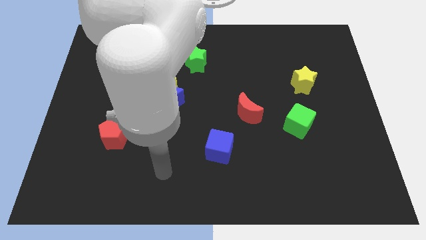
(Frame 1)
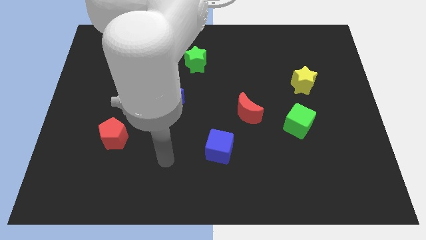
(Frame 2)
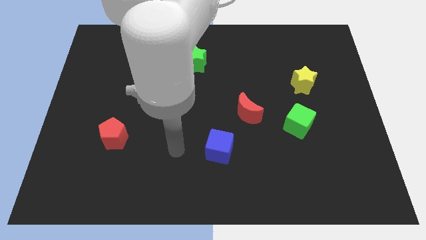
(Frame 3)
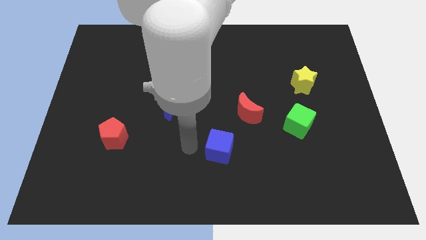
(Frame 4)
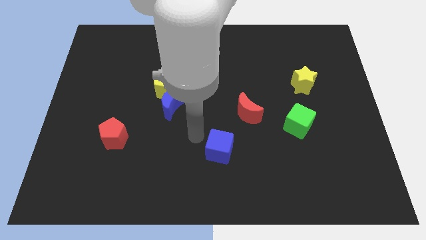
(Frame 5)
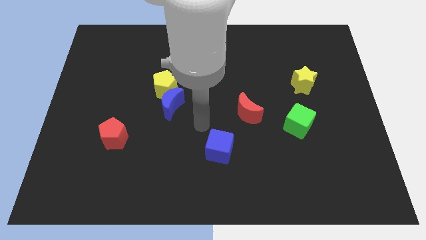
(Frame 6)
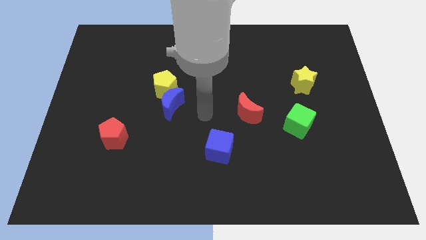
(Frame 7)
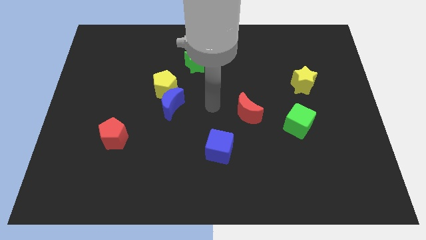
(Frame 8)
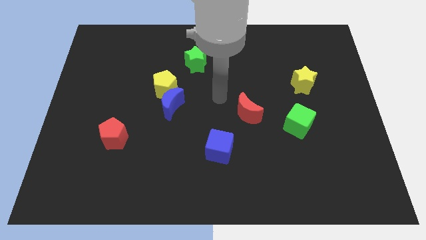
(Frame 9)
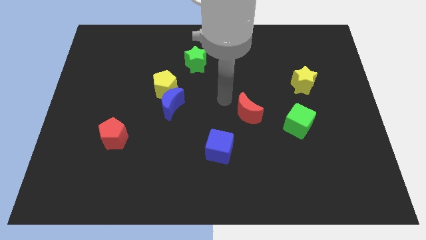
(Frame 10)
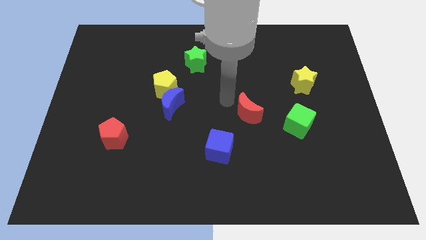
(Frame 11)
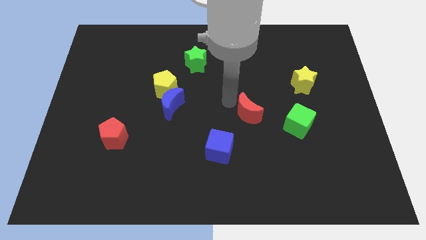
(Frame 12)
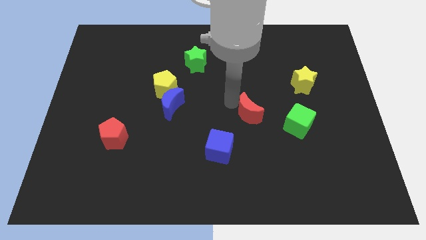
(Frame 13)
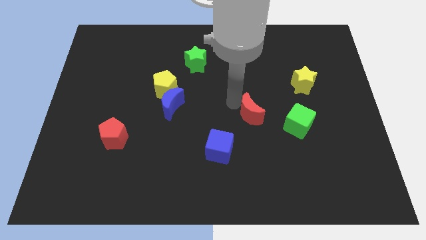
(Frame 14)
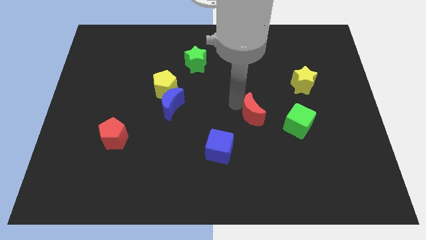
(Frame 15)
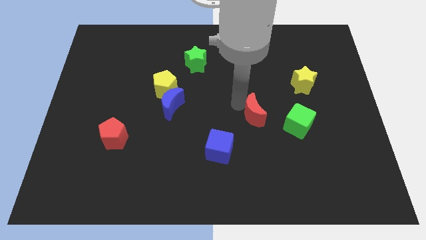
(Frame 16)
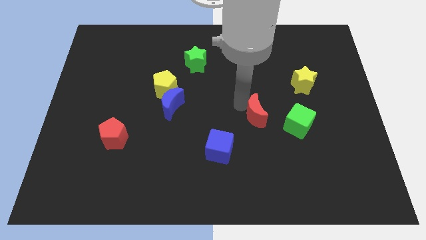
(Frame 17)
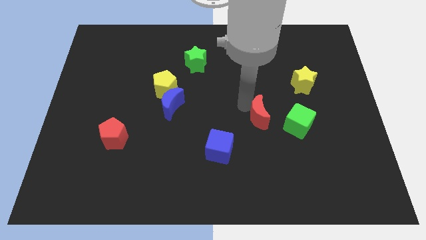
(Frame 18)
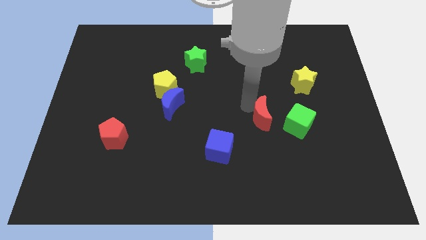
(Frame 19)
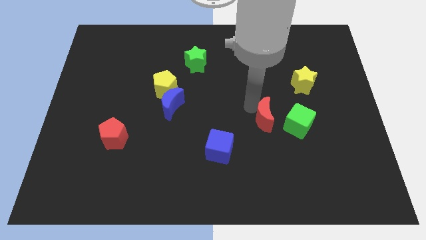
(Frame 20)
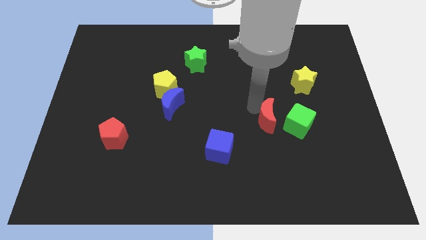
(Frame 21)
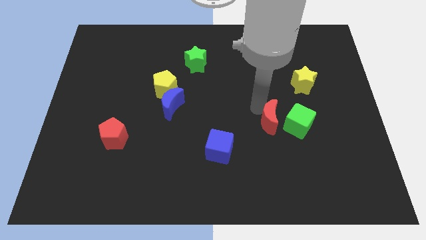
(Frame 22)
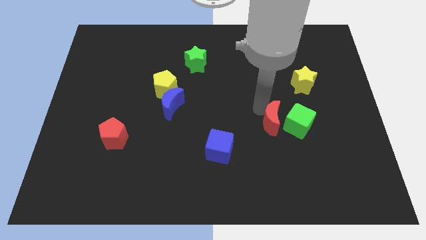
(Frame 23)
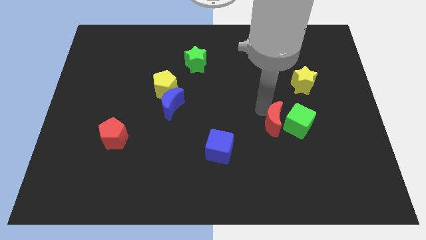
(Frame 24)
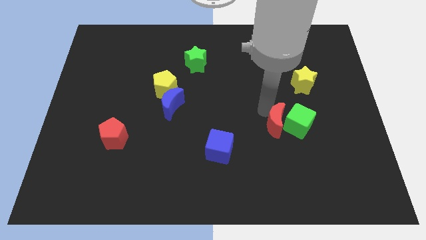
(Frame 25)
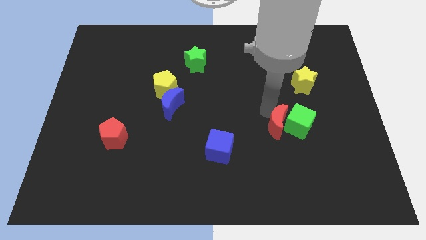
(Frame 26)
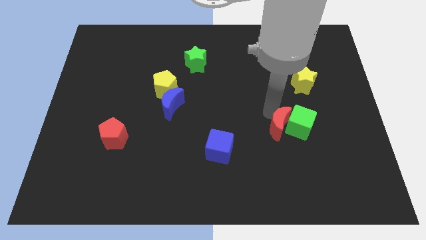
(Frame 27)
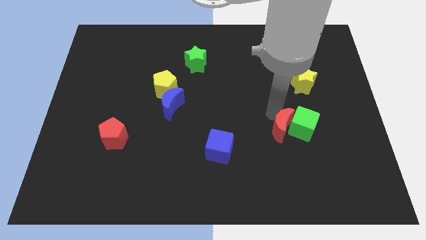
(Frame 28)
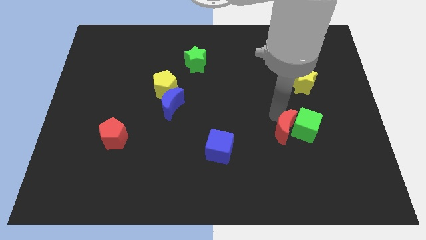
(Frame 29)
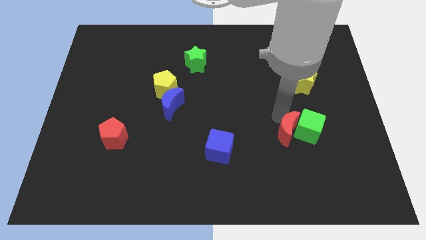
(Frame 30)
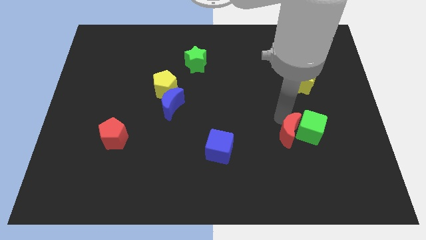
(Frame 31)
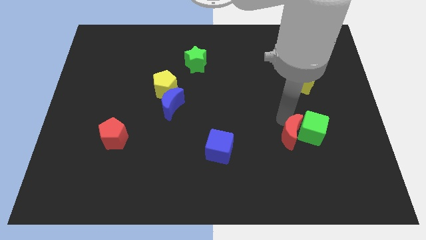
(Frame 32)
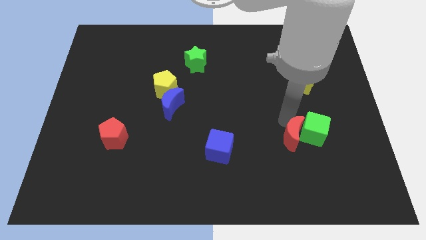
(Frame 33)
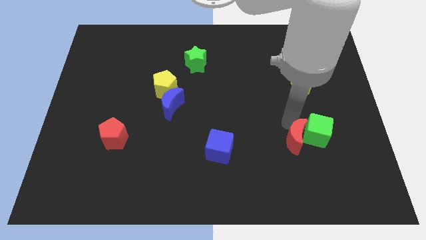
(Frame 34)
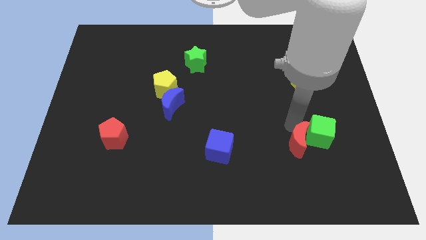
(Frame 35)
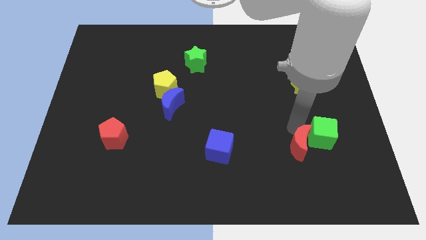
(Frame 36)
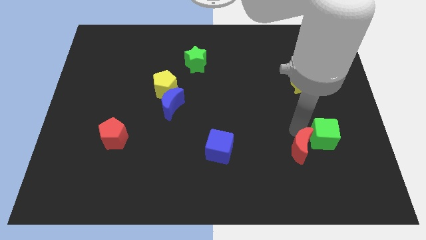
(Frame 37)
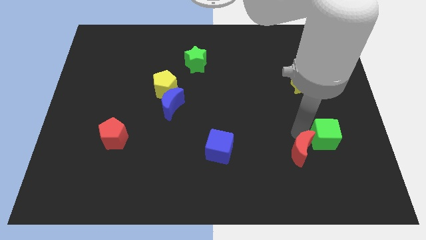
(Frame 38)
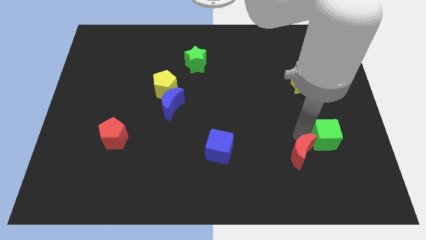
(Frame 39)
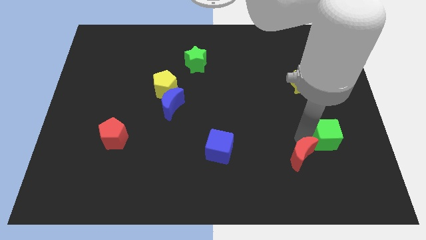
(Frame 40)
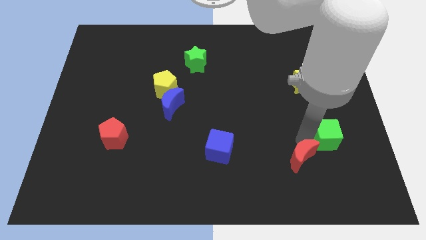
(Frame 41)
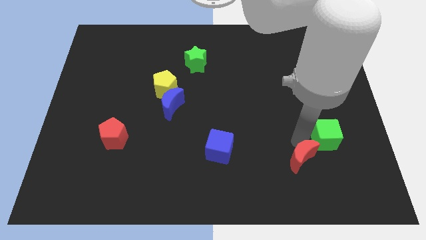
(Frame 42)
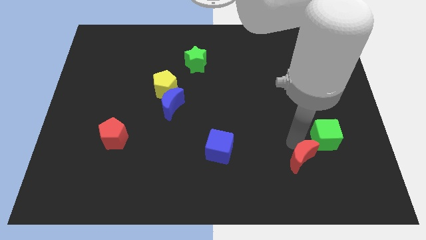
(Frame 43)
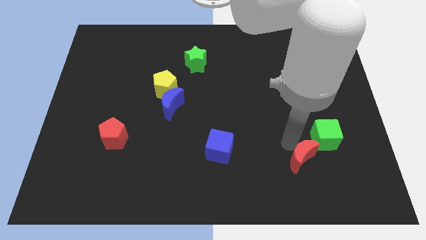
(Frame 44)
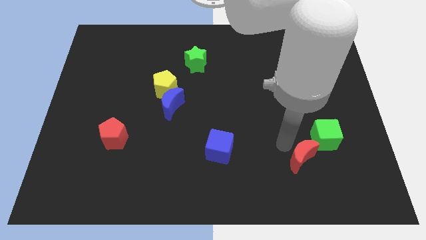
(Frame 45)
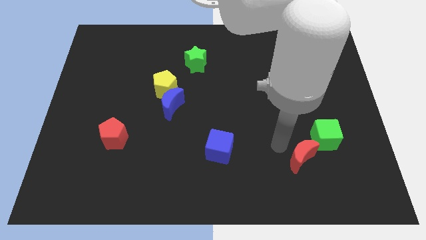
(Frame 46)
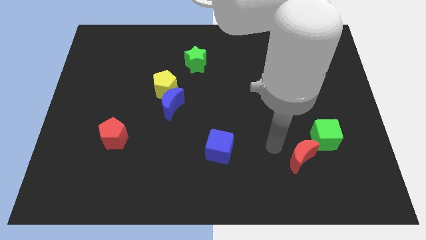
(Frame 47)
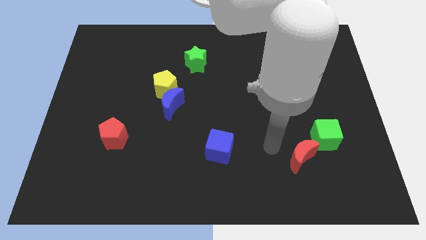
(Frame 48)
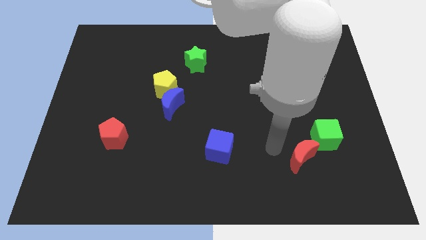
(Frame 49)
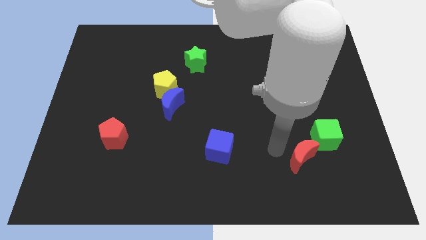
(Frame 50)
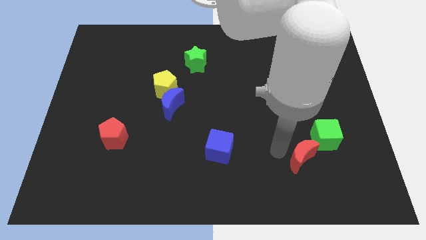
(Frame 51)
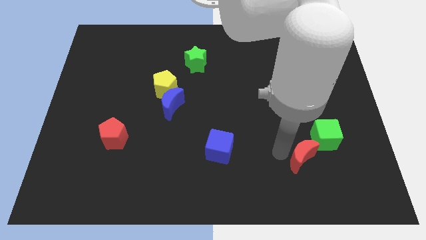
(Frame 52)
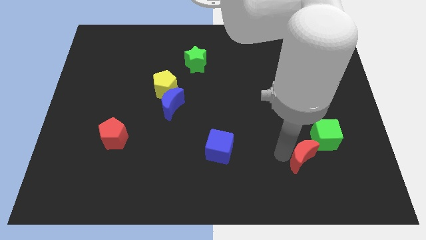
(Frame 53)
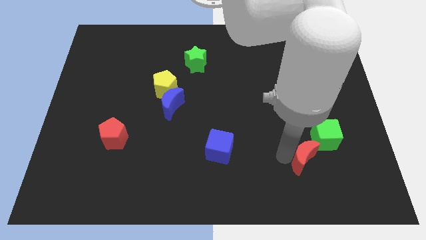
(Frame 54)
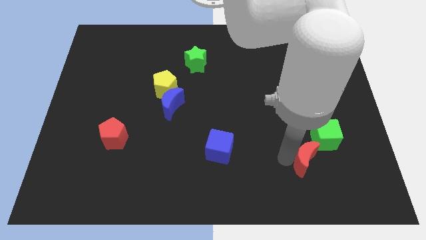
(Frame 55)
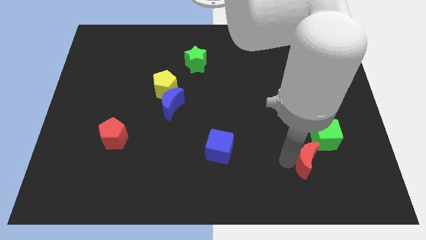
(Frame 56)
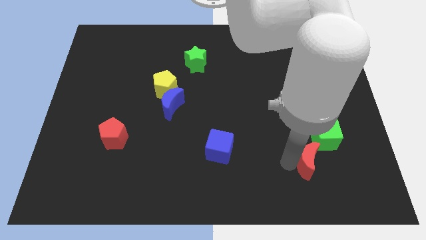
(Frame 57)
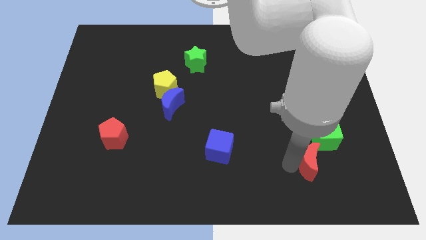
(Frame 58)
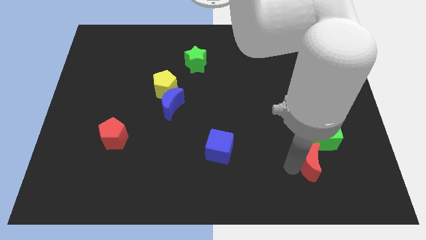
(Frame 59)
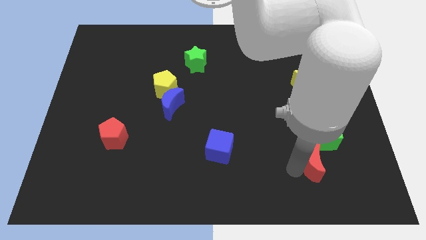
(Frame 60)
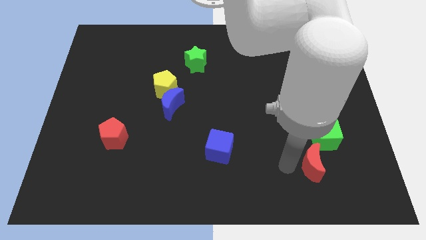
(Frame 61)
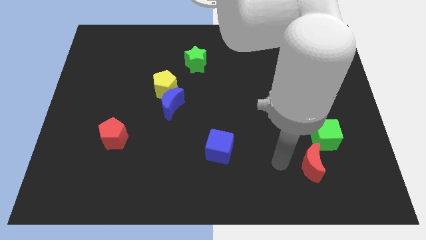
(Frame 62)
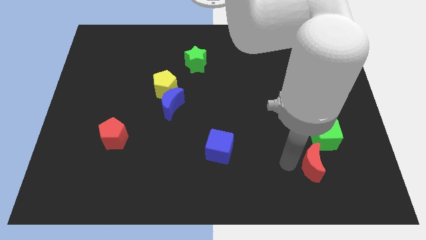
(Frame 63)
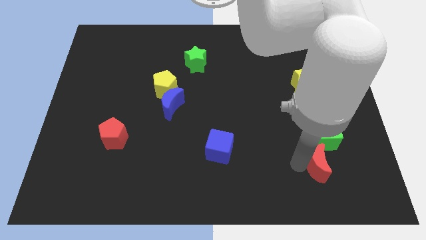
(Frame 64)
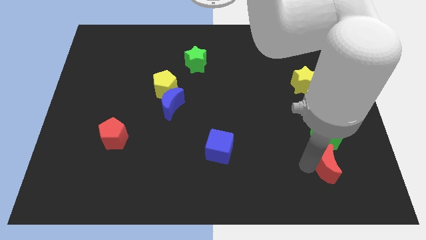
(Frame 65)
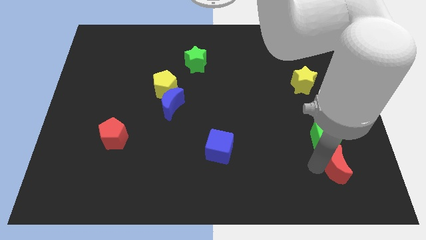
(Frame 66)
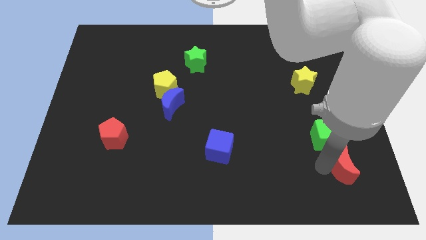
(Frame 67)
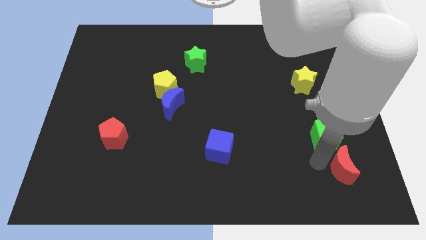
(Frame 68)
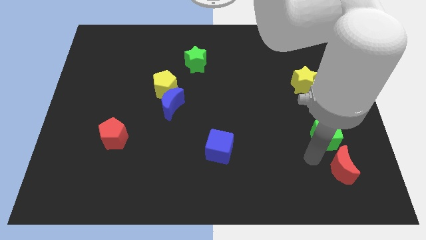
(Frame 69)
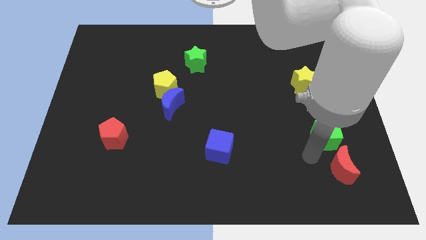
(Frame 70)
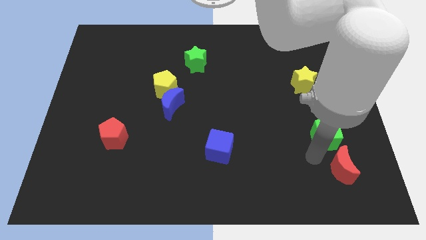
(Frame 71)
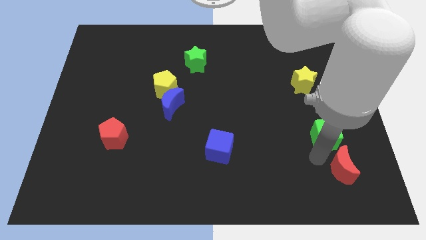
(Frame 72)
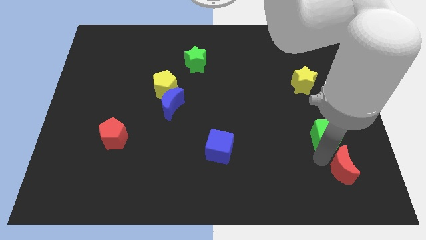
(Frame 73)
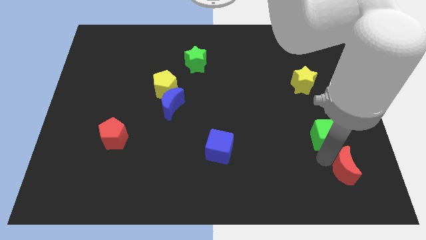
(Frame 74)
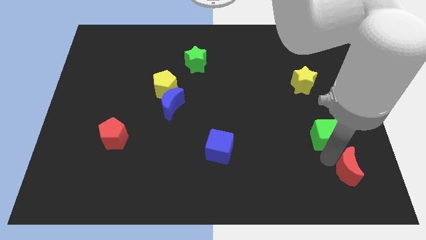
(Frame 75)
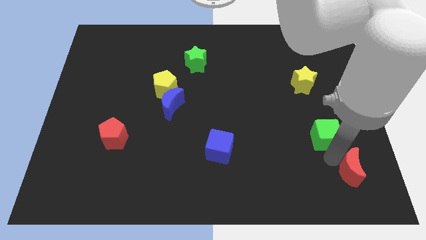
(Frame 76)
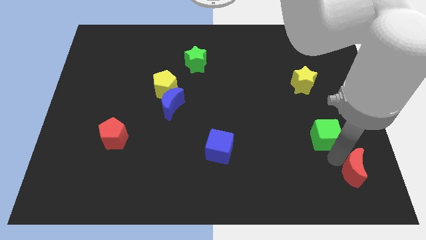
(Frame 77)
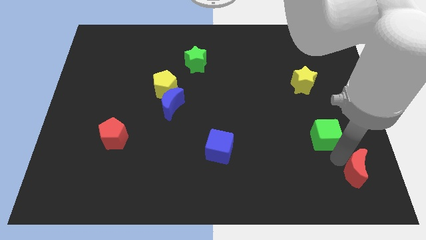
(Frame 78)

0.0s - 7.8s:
slide the red moon to the bottom right
